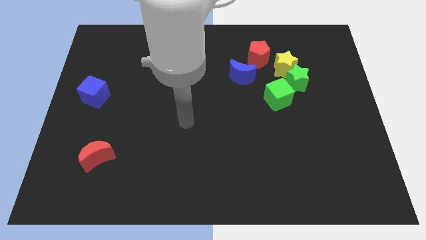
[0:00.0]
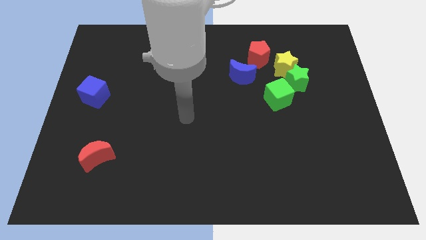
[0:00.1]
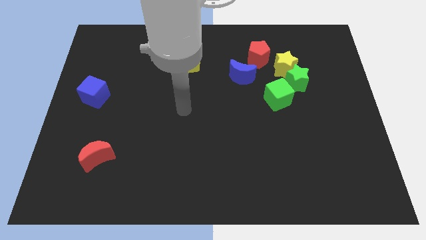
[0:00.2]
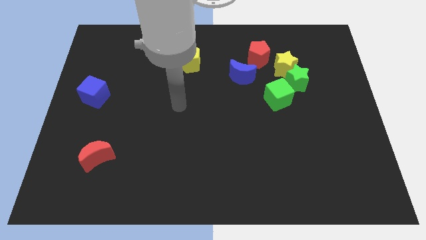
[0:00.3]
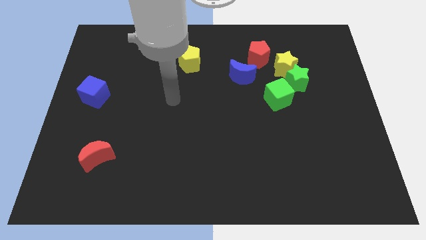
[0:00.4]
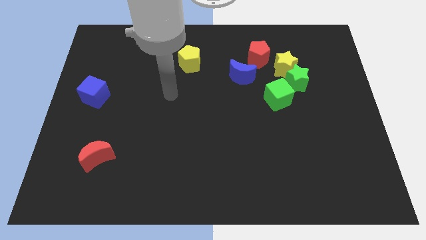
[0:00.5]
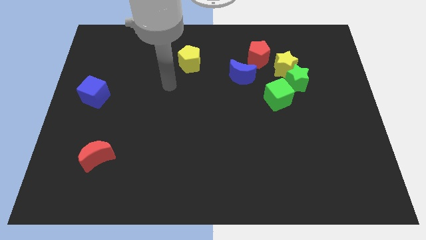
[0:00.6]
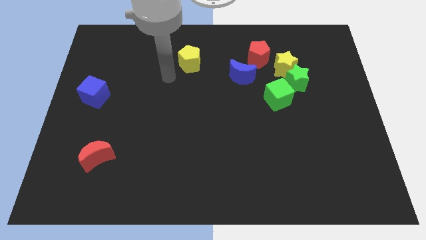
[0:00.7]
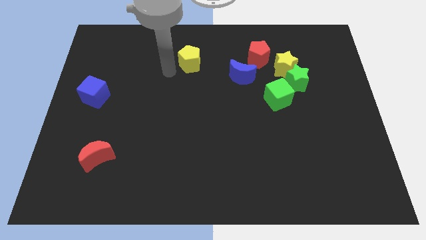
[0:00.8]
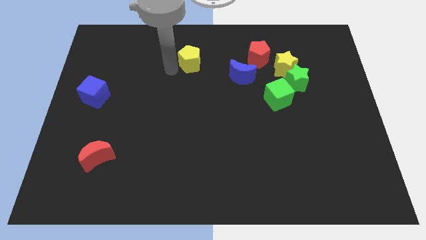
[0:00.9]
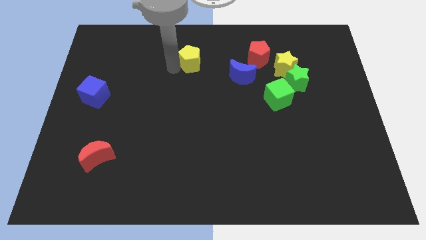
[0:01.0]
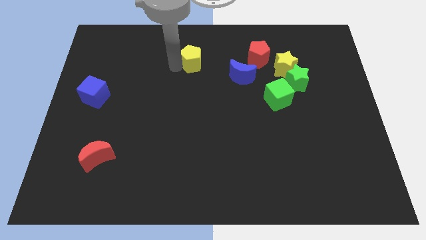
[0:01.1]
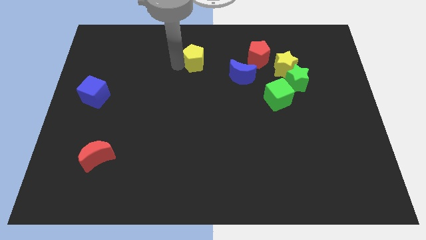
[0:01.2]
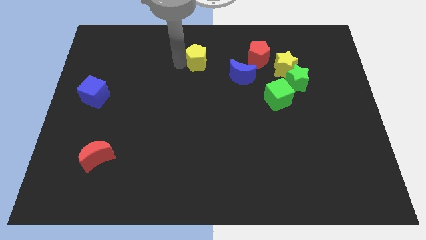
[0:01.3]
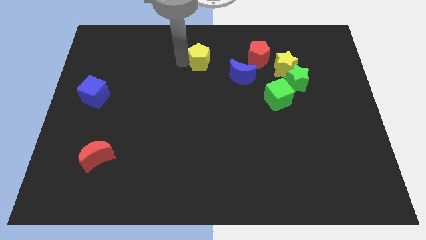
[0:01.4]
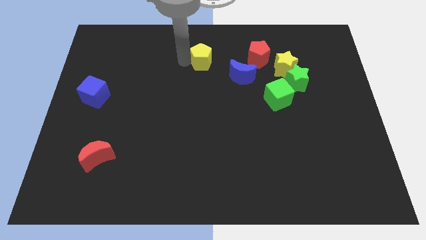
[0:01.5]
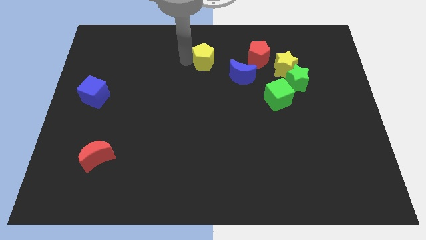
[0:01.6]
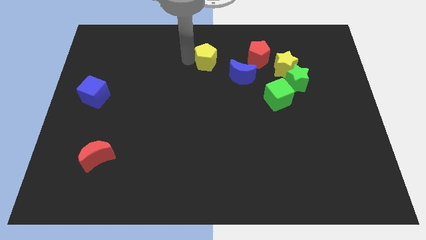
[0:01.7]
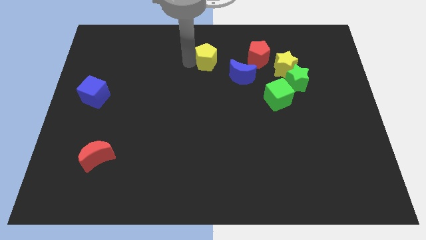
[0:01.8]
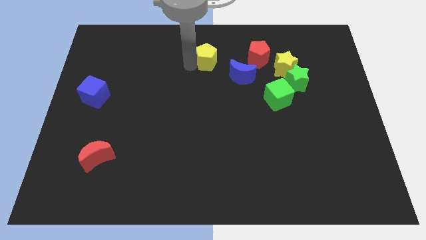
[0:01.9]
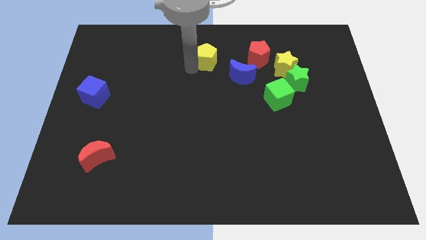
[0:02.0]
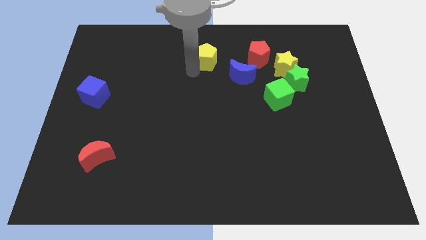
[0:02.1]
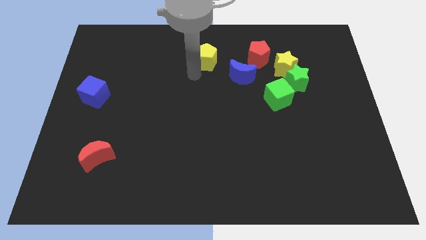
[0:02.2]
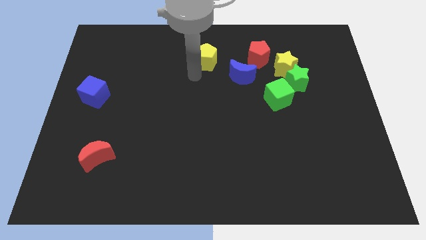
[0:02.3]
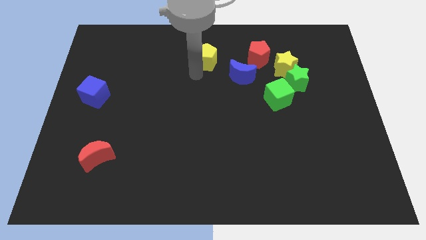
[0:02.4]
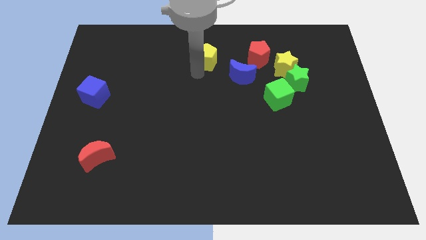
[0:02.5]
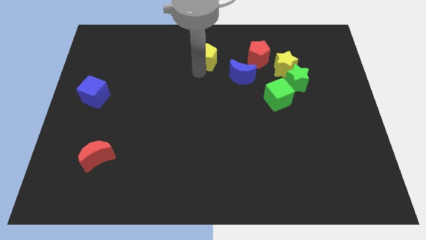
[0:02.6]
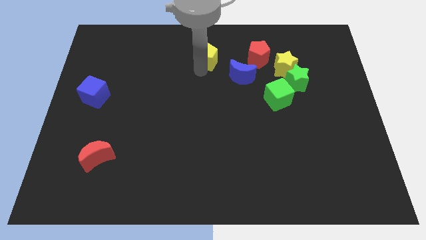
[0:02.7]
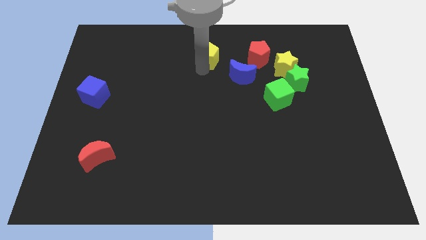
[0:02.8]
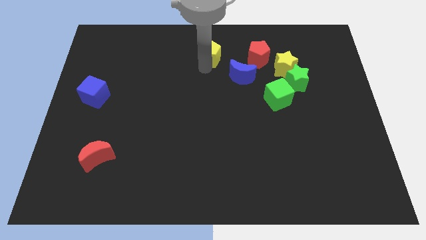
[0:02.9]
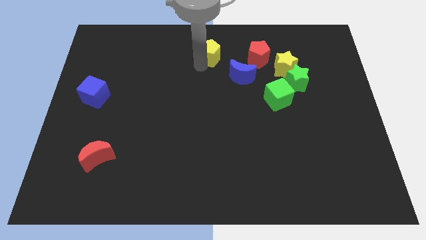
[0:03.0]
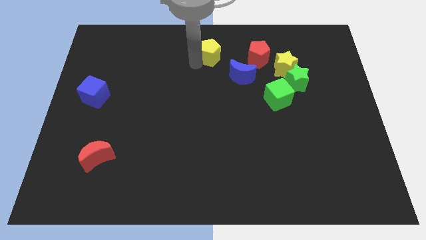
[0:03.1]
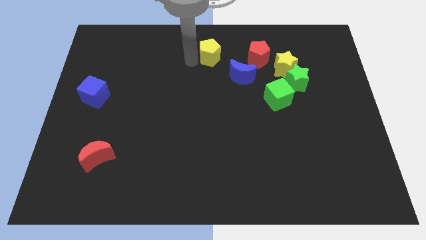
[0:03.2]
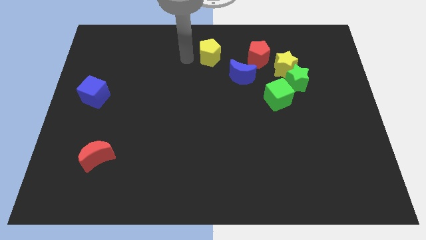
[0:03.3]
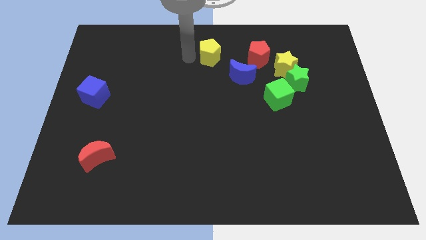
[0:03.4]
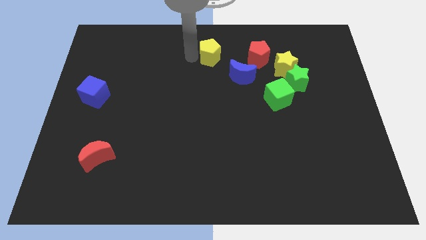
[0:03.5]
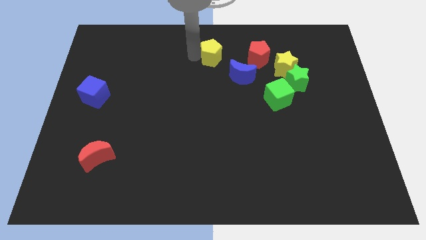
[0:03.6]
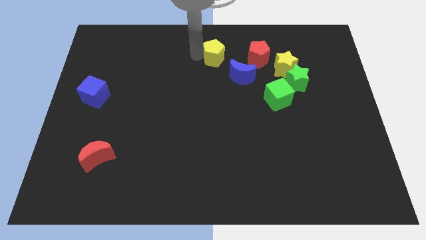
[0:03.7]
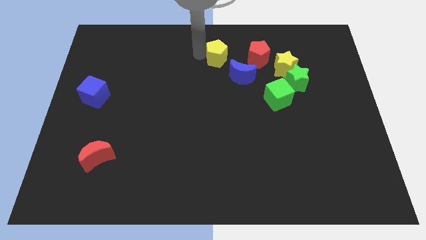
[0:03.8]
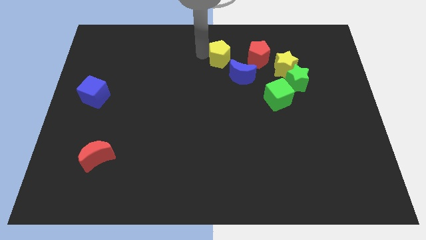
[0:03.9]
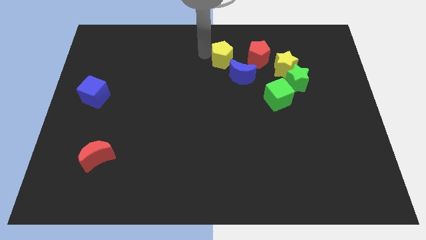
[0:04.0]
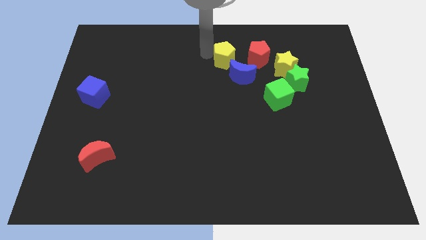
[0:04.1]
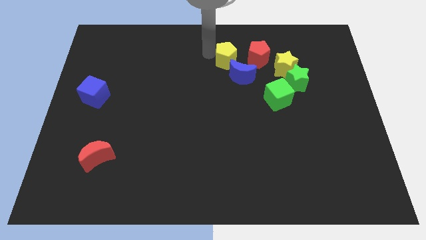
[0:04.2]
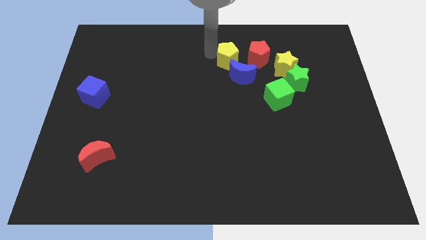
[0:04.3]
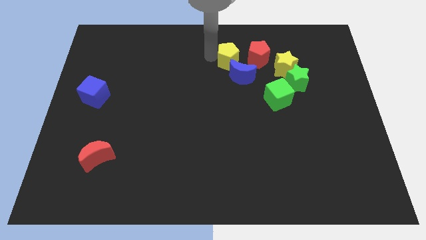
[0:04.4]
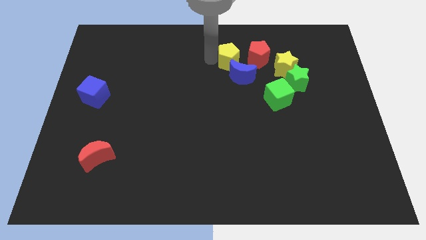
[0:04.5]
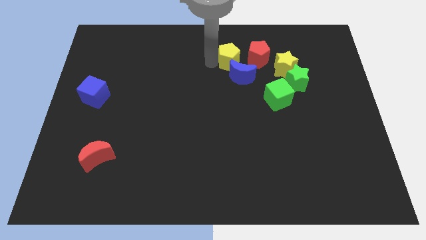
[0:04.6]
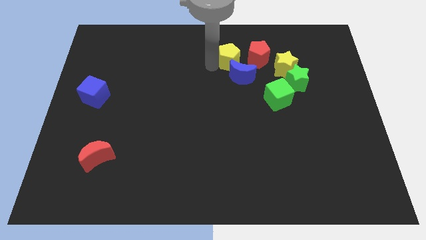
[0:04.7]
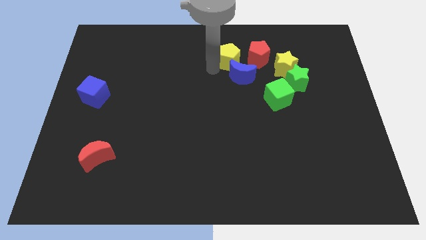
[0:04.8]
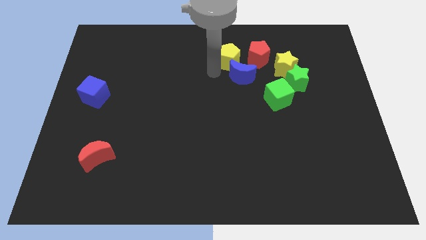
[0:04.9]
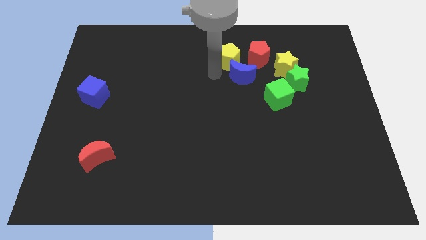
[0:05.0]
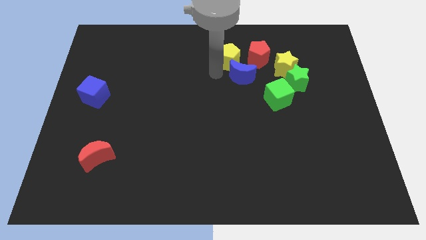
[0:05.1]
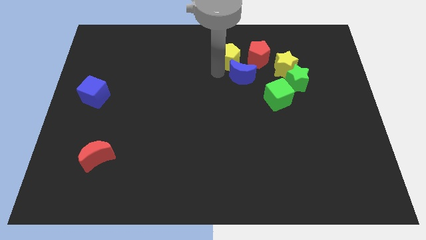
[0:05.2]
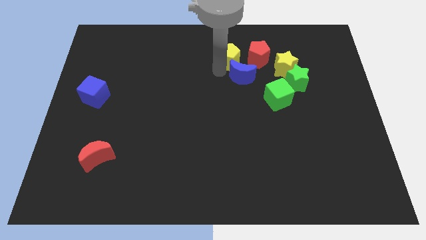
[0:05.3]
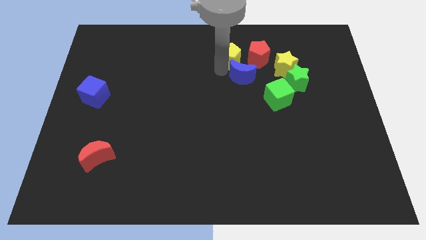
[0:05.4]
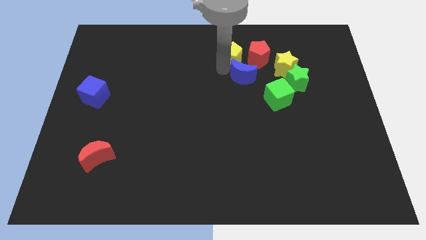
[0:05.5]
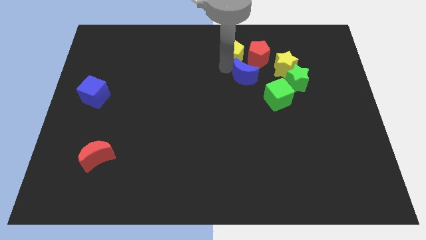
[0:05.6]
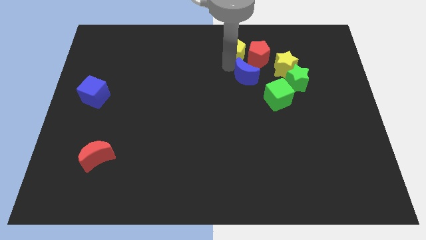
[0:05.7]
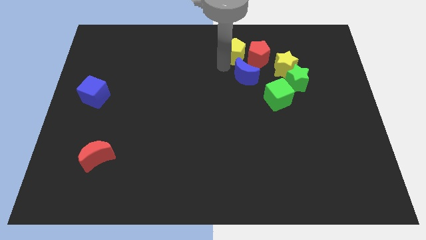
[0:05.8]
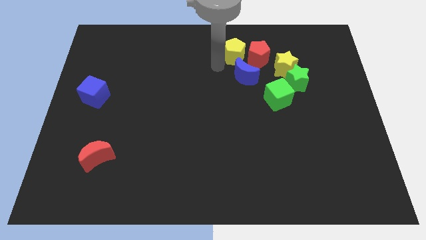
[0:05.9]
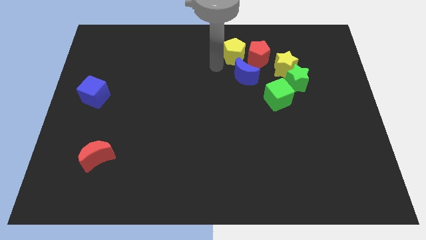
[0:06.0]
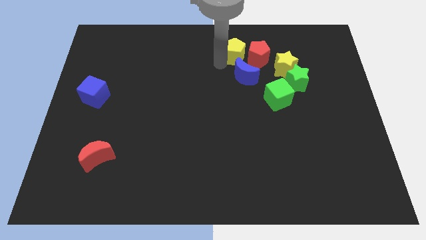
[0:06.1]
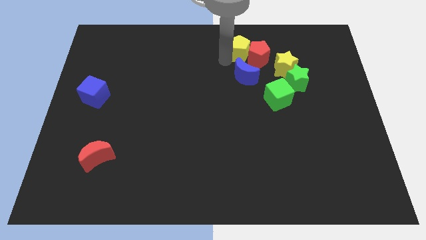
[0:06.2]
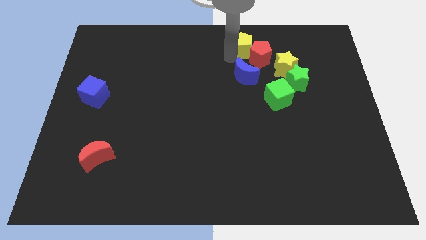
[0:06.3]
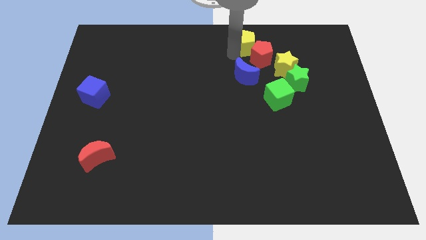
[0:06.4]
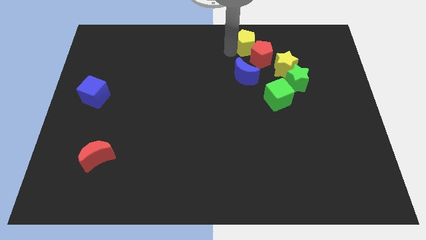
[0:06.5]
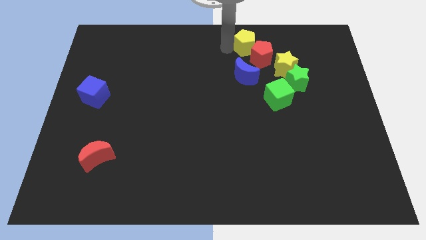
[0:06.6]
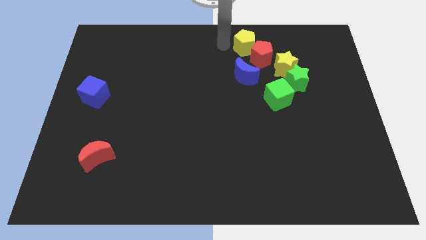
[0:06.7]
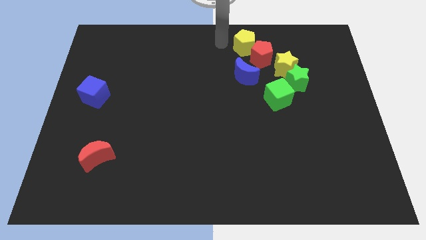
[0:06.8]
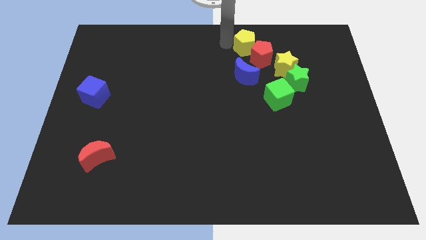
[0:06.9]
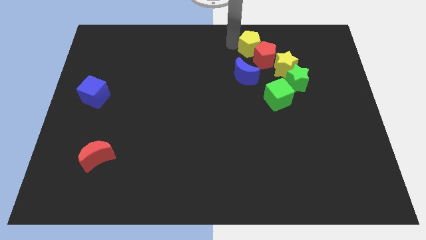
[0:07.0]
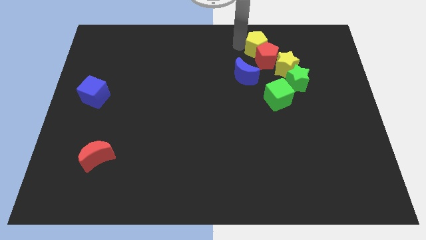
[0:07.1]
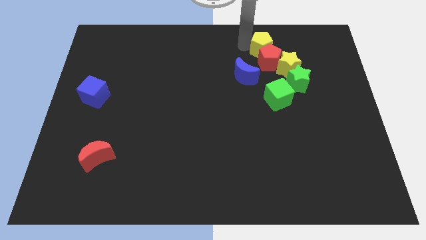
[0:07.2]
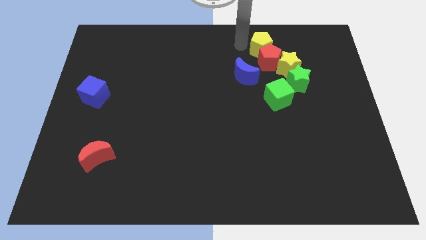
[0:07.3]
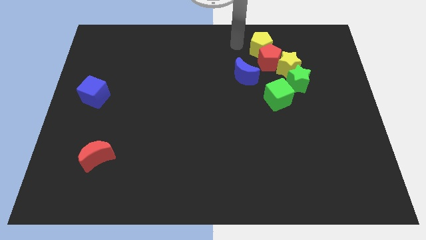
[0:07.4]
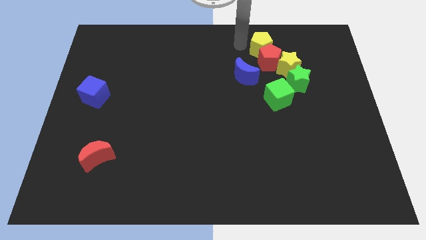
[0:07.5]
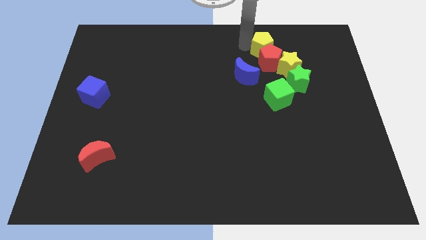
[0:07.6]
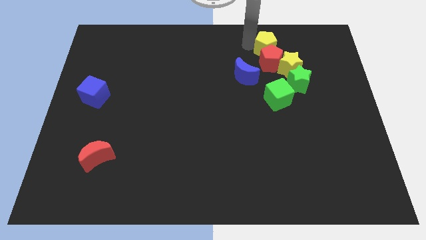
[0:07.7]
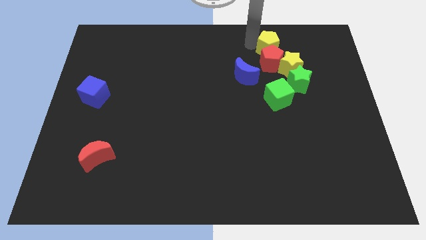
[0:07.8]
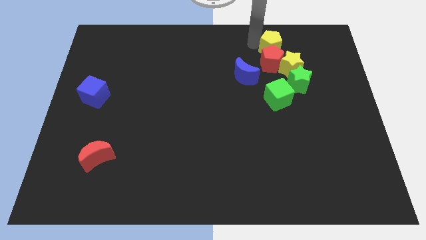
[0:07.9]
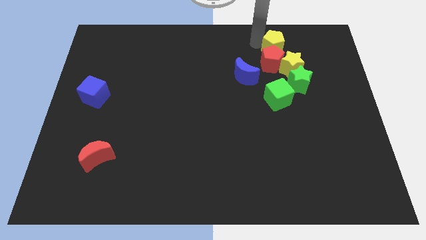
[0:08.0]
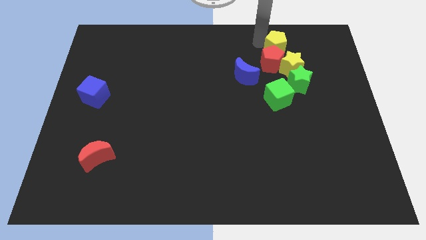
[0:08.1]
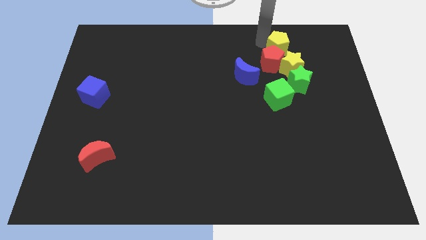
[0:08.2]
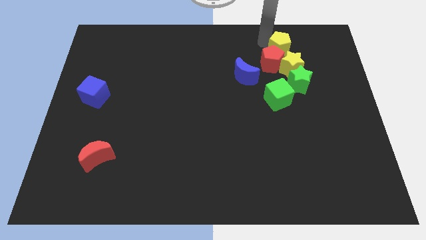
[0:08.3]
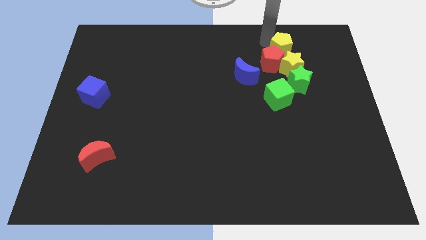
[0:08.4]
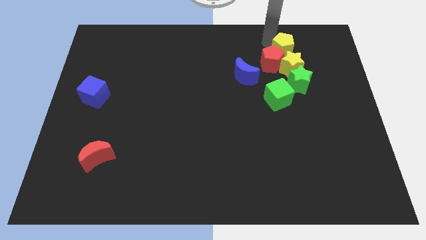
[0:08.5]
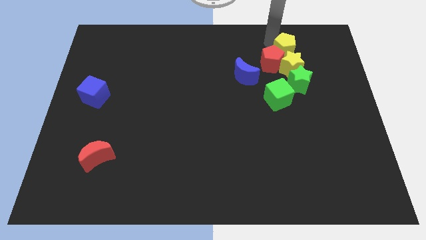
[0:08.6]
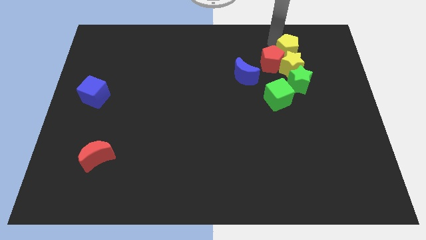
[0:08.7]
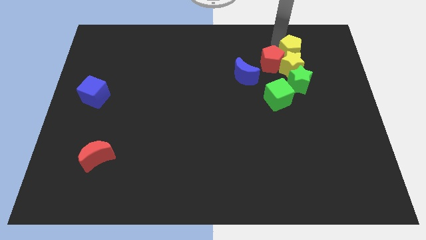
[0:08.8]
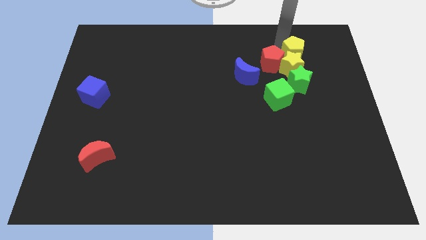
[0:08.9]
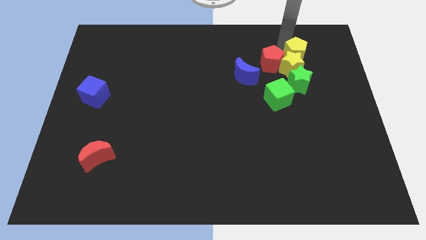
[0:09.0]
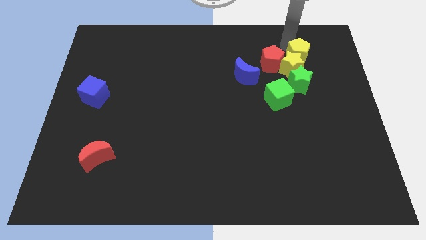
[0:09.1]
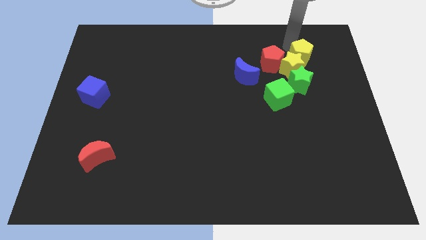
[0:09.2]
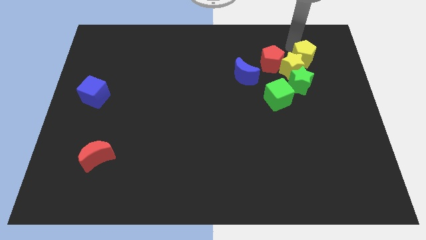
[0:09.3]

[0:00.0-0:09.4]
put the yellow pentagon to the top right of the green star
